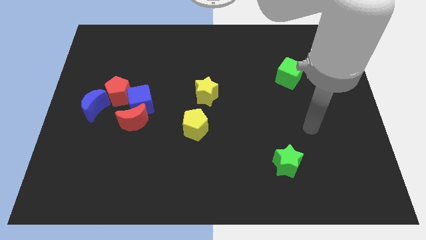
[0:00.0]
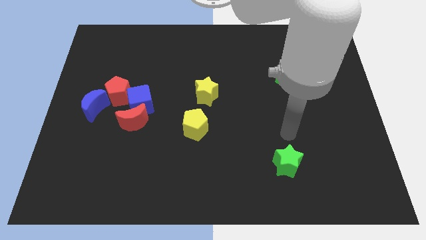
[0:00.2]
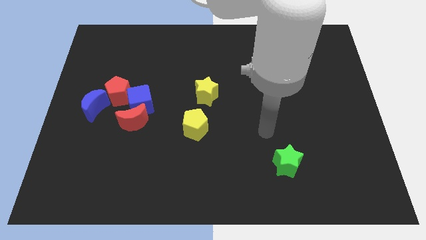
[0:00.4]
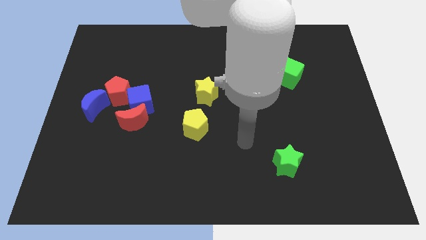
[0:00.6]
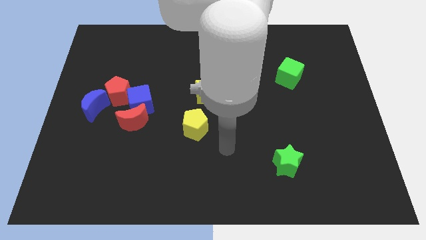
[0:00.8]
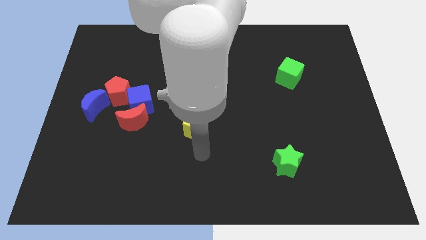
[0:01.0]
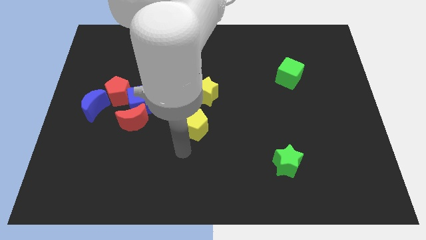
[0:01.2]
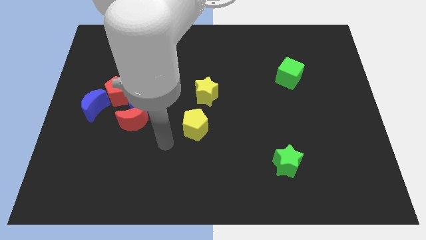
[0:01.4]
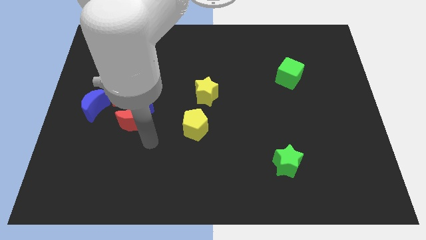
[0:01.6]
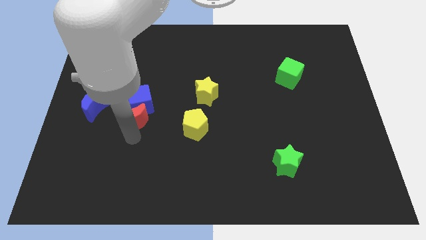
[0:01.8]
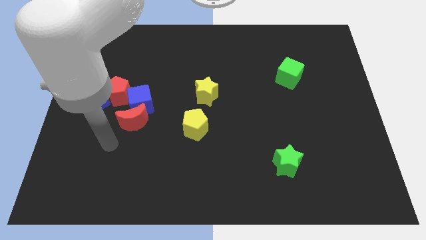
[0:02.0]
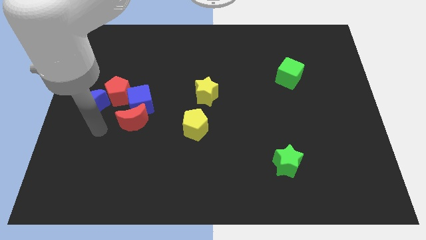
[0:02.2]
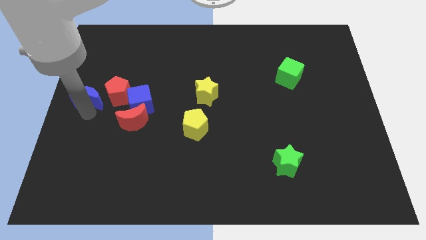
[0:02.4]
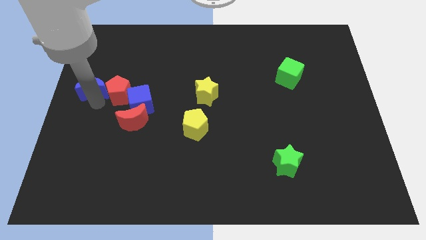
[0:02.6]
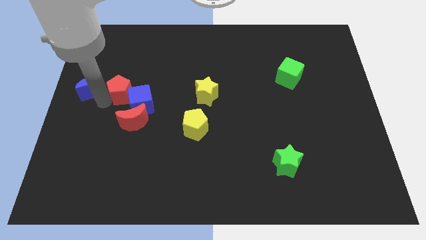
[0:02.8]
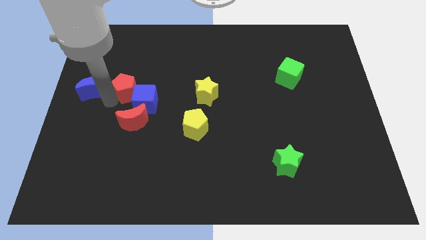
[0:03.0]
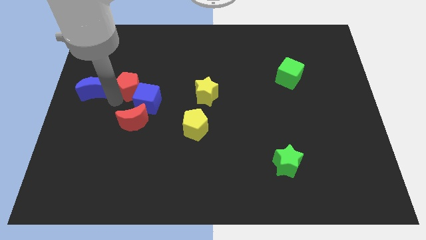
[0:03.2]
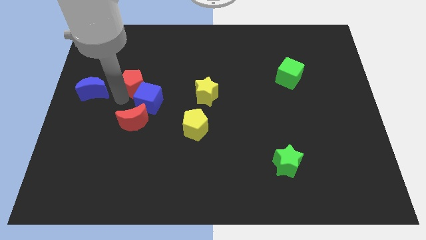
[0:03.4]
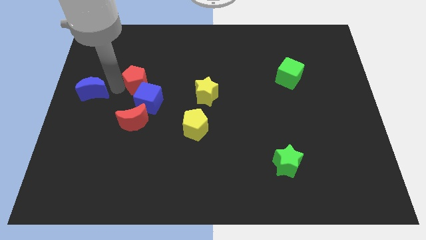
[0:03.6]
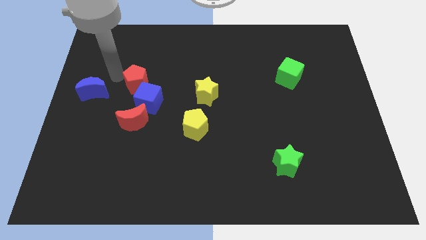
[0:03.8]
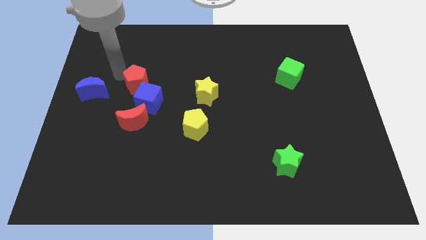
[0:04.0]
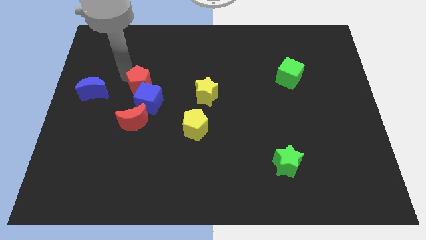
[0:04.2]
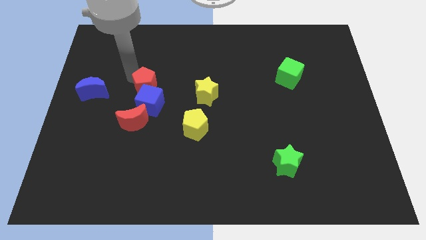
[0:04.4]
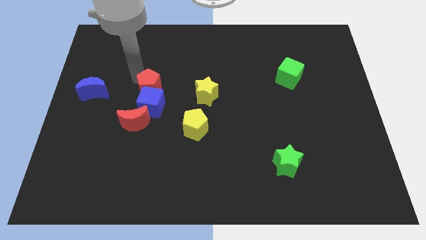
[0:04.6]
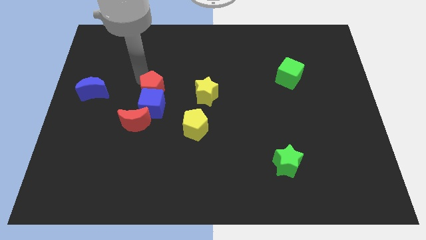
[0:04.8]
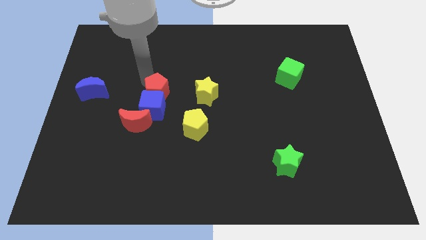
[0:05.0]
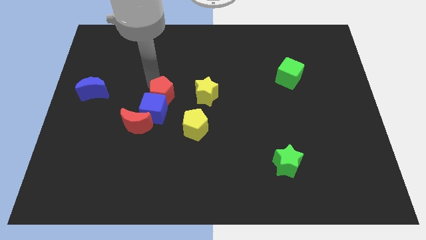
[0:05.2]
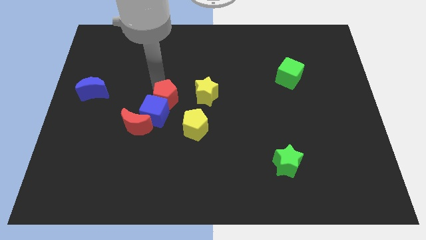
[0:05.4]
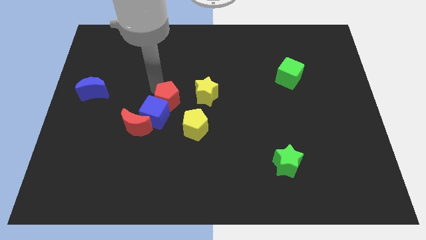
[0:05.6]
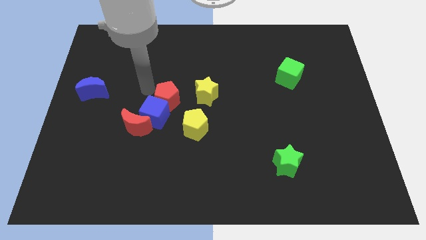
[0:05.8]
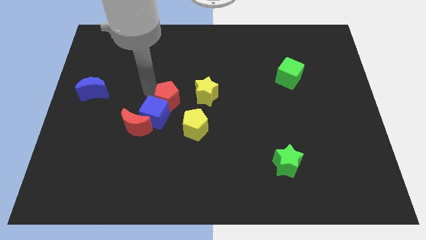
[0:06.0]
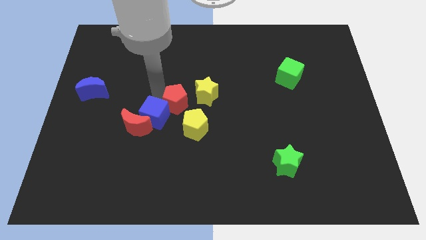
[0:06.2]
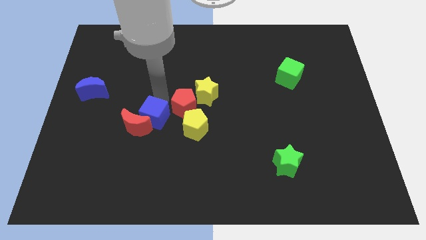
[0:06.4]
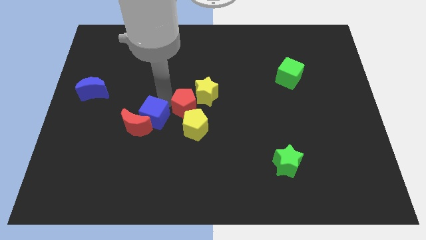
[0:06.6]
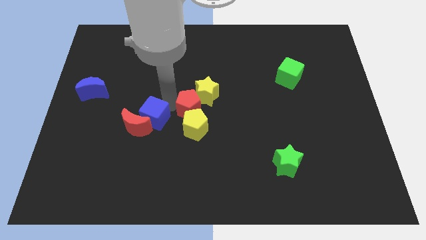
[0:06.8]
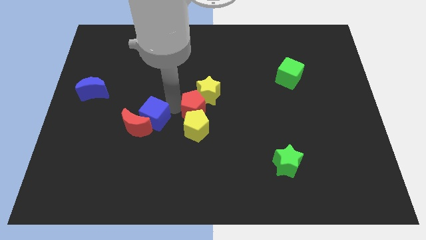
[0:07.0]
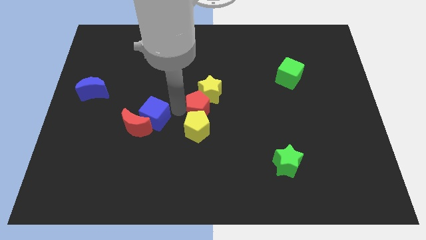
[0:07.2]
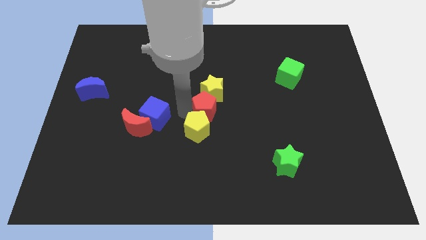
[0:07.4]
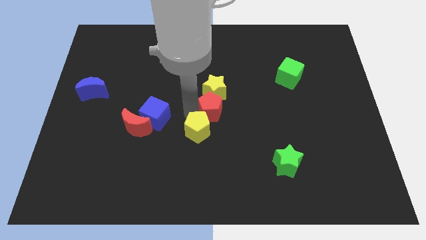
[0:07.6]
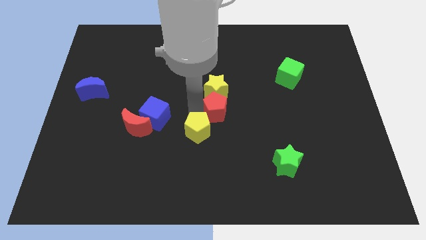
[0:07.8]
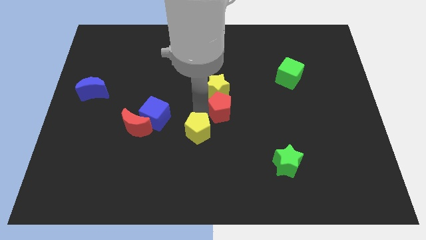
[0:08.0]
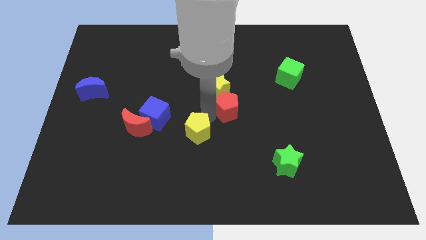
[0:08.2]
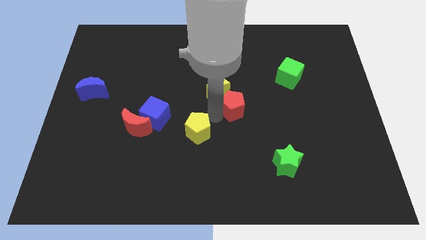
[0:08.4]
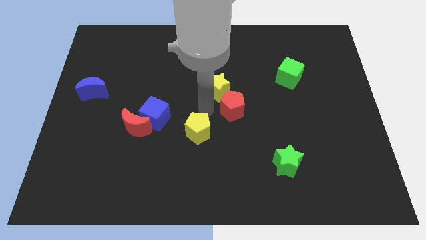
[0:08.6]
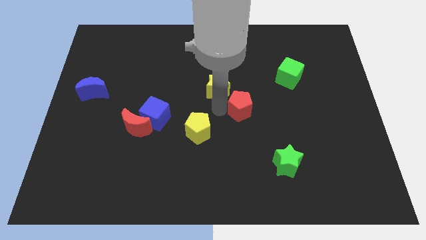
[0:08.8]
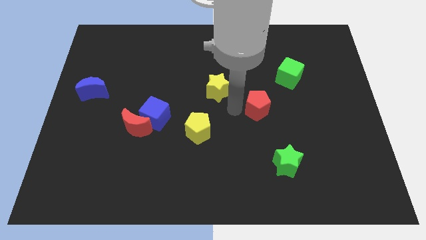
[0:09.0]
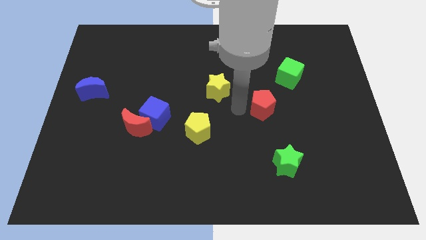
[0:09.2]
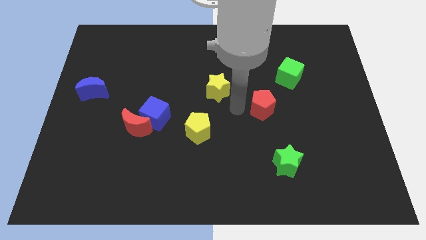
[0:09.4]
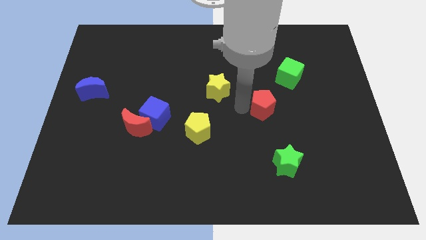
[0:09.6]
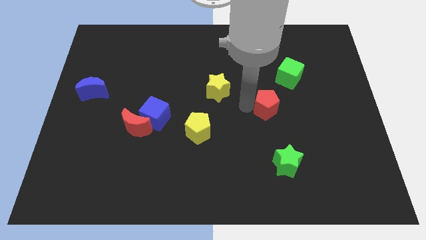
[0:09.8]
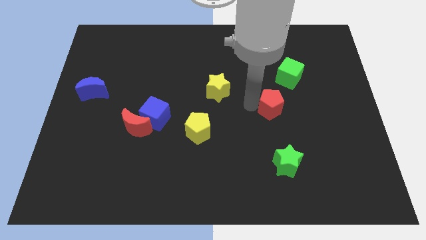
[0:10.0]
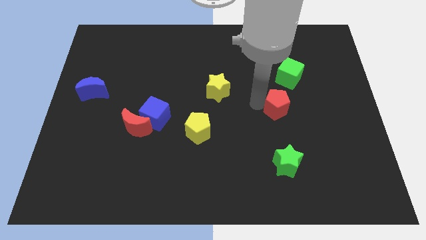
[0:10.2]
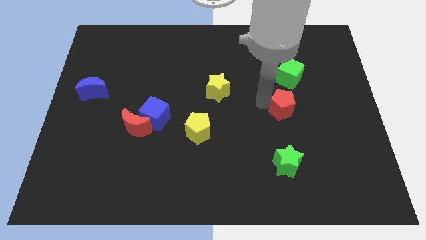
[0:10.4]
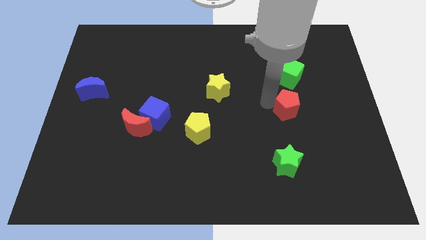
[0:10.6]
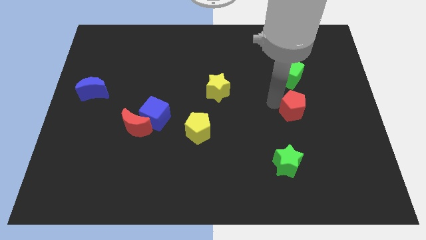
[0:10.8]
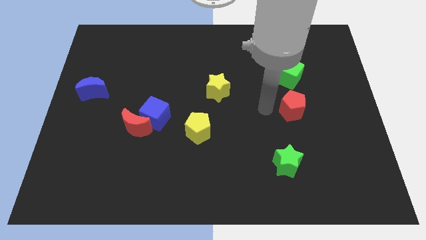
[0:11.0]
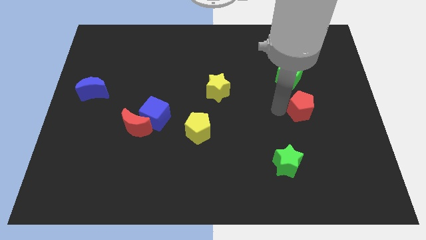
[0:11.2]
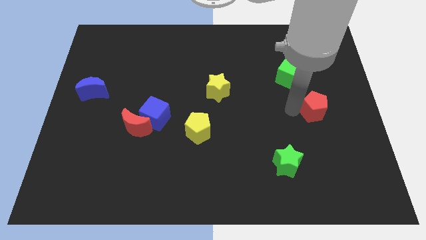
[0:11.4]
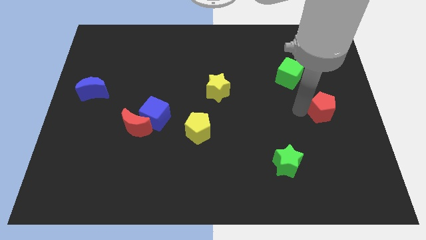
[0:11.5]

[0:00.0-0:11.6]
push the red pentagon to the right side
